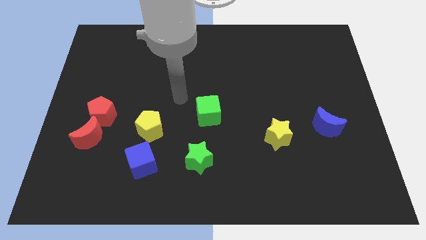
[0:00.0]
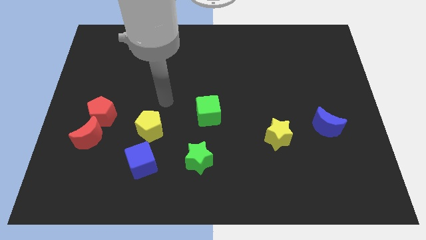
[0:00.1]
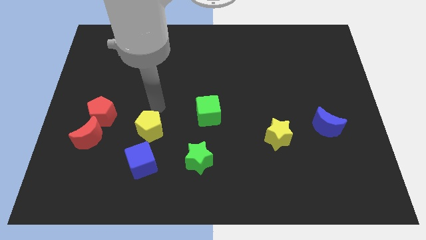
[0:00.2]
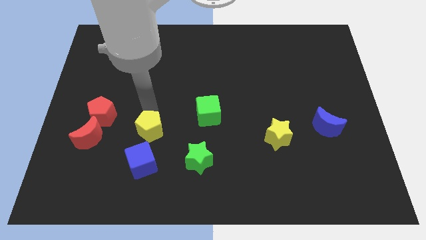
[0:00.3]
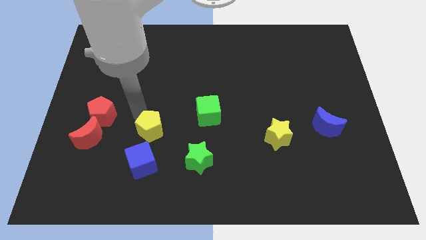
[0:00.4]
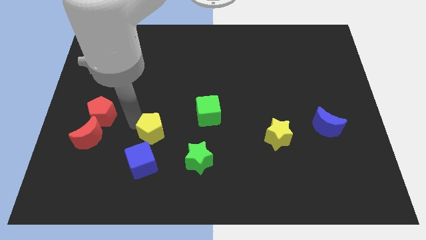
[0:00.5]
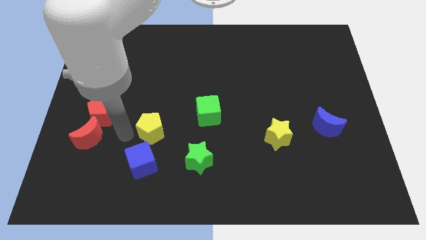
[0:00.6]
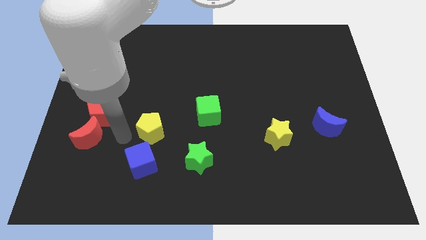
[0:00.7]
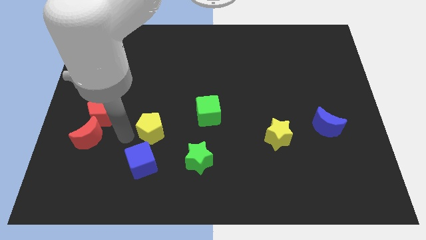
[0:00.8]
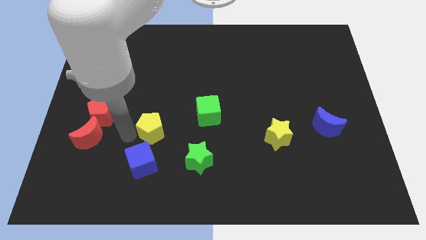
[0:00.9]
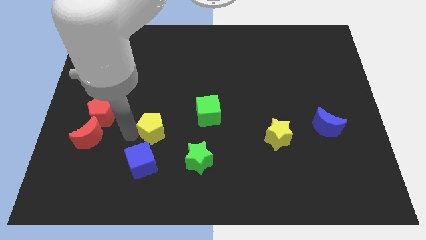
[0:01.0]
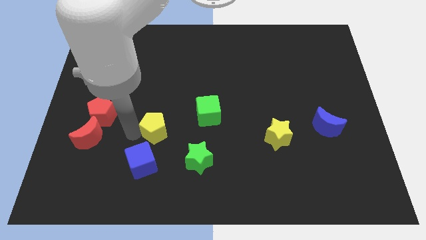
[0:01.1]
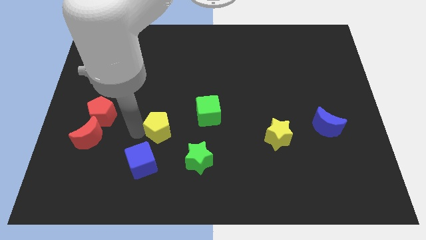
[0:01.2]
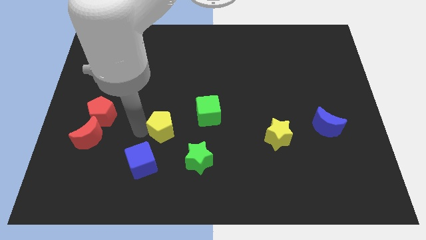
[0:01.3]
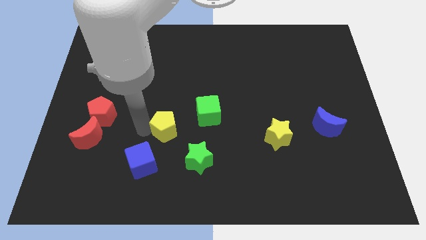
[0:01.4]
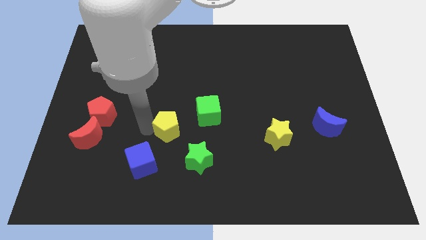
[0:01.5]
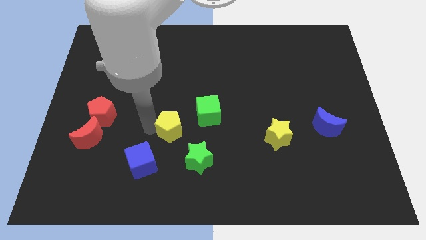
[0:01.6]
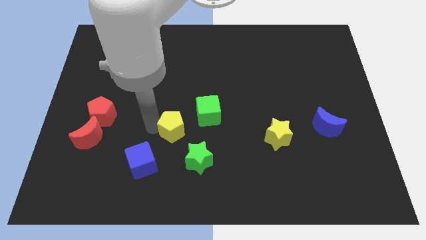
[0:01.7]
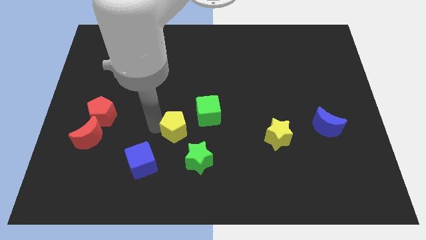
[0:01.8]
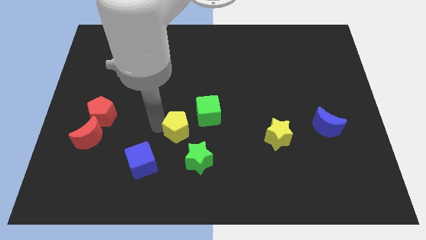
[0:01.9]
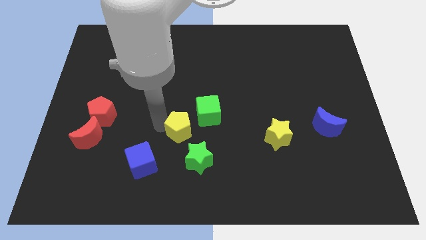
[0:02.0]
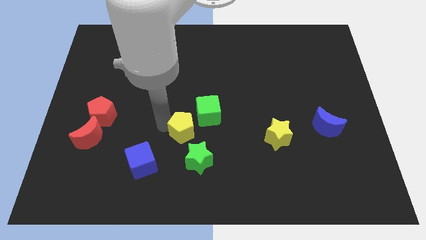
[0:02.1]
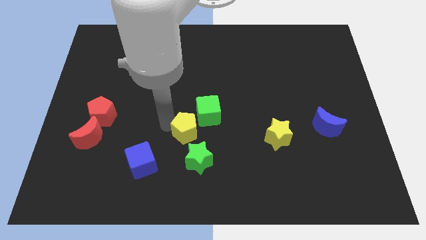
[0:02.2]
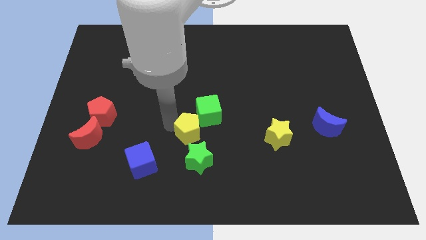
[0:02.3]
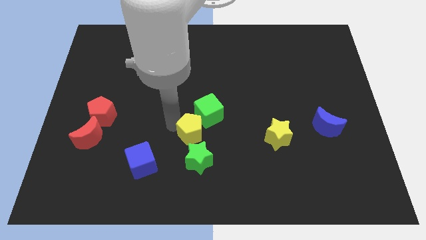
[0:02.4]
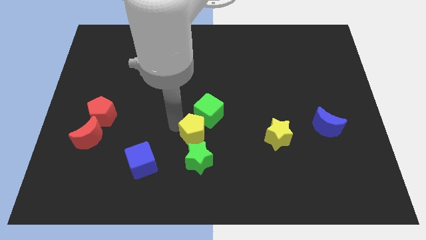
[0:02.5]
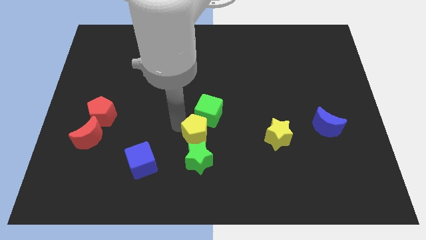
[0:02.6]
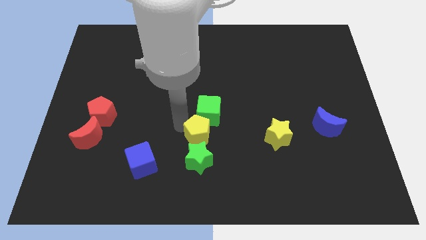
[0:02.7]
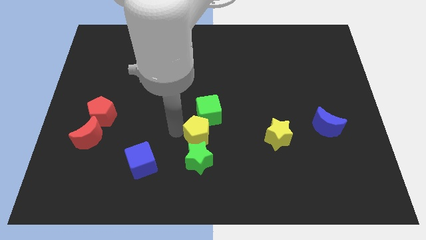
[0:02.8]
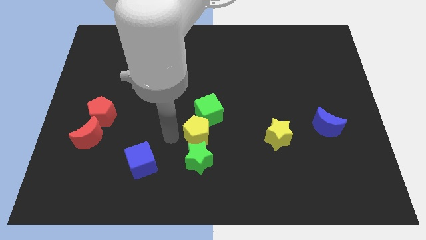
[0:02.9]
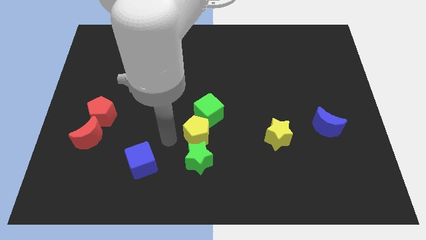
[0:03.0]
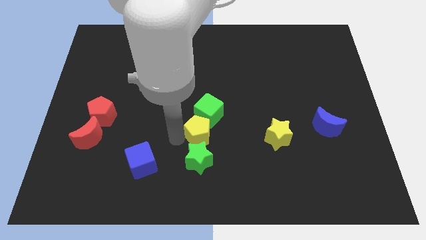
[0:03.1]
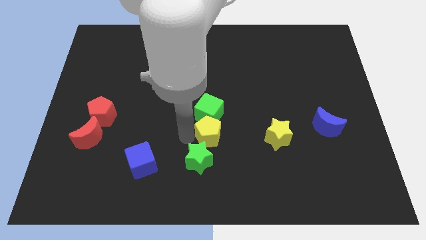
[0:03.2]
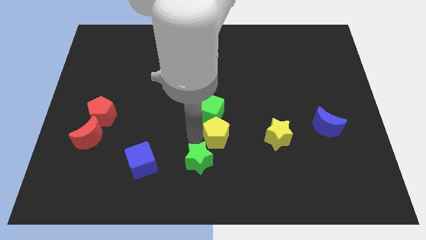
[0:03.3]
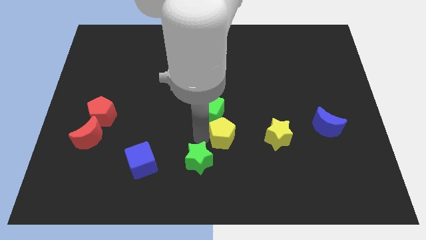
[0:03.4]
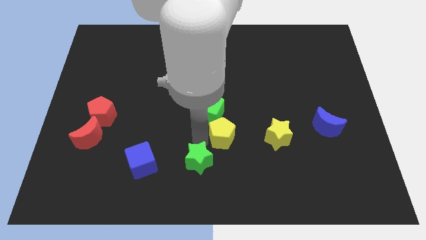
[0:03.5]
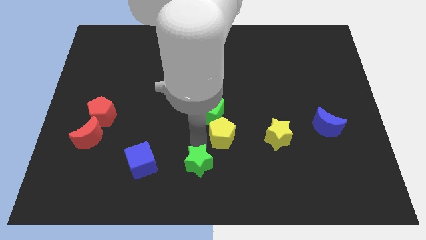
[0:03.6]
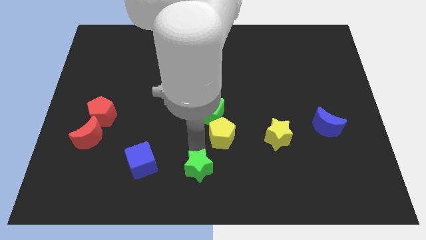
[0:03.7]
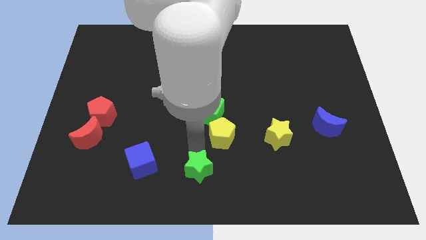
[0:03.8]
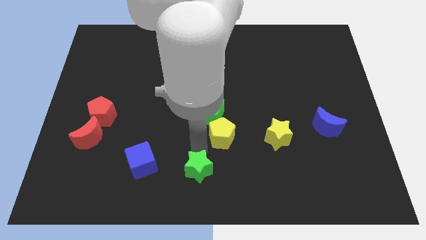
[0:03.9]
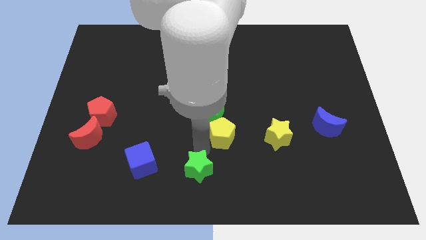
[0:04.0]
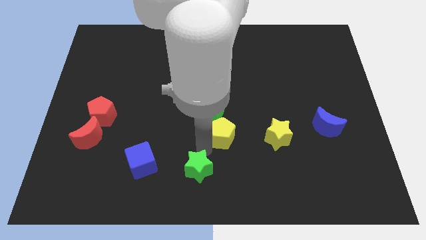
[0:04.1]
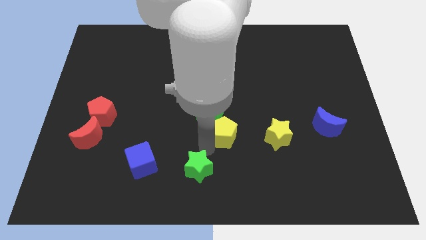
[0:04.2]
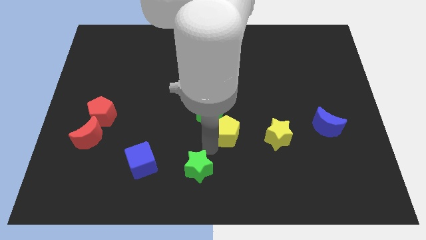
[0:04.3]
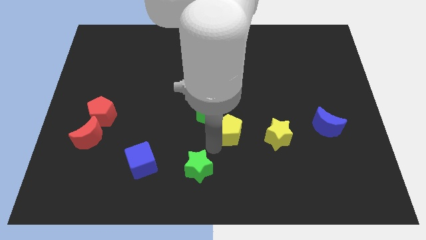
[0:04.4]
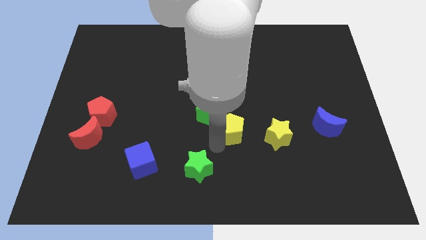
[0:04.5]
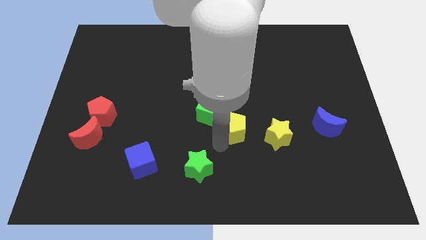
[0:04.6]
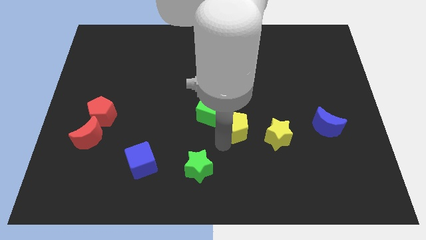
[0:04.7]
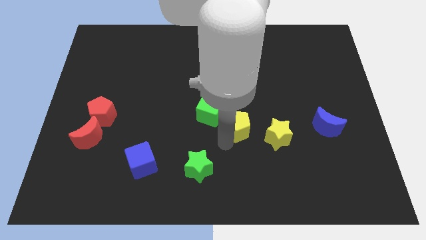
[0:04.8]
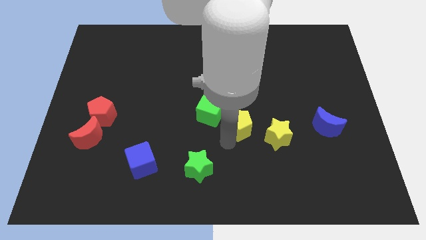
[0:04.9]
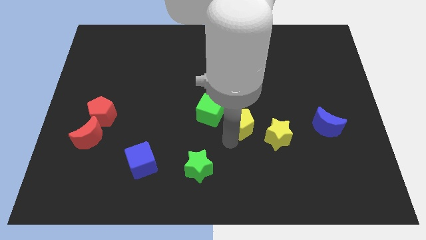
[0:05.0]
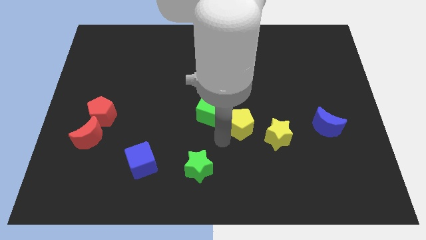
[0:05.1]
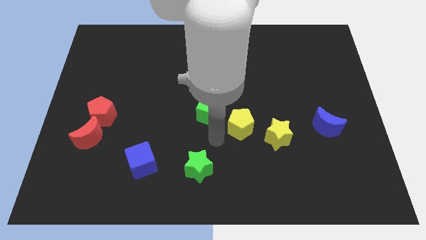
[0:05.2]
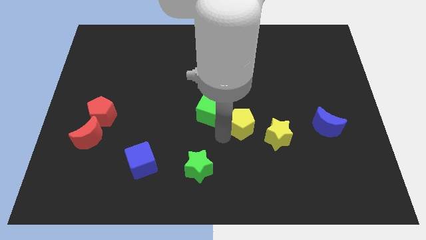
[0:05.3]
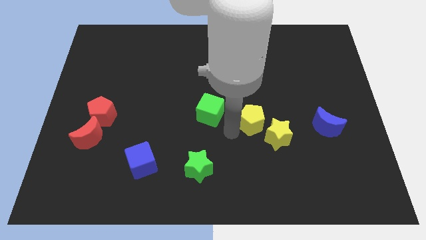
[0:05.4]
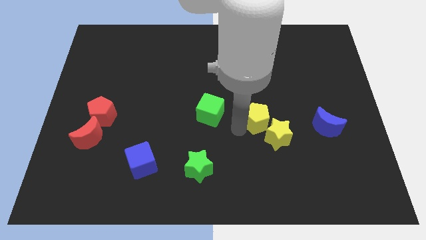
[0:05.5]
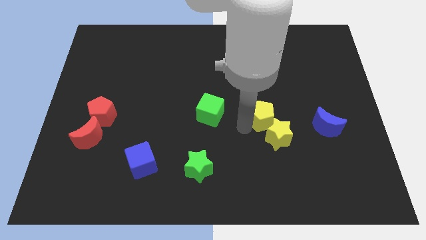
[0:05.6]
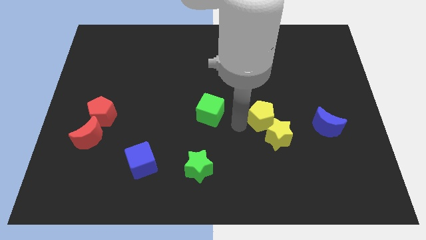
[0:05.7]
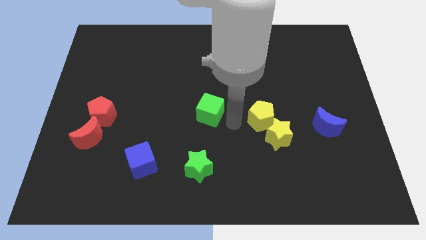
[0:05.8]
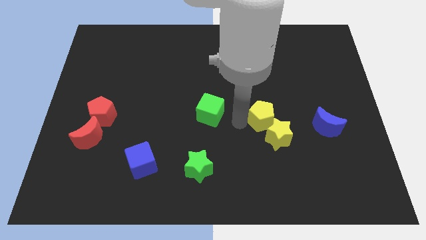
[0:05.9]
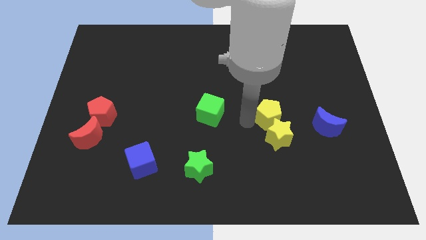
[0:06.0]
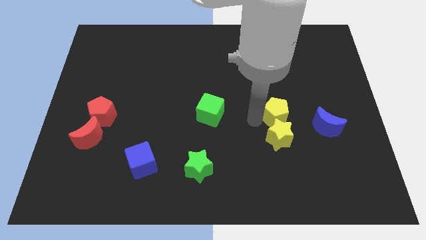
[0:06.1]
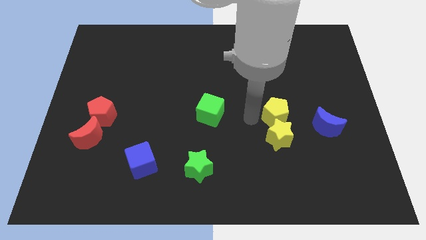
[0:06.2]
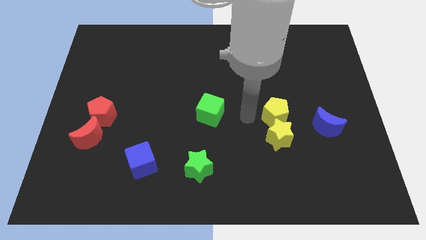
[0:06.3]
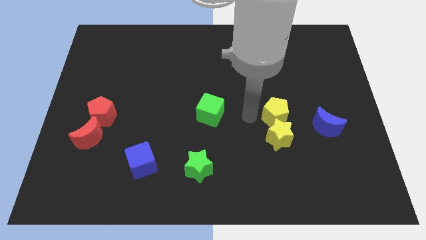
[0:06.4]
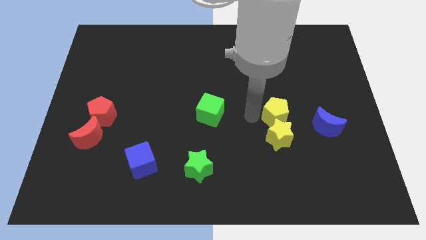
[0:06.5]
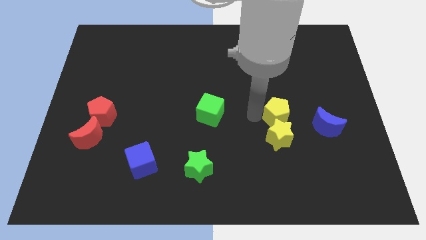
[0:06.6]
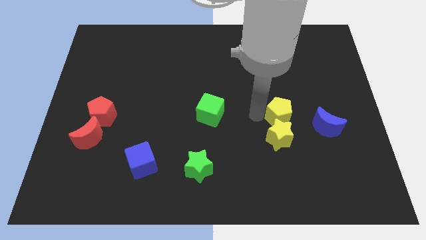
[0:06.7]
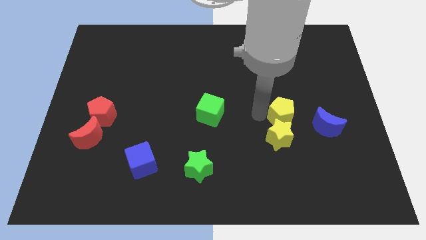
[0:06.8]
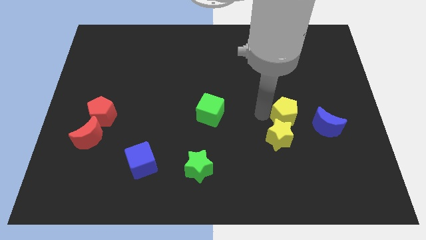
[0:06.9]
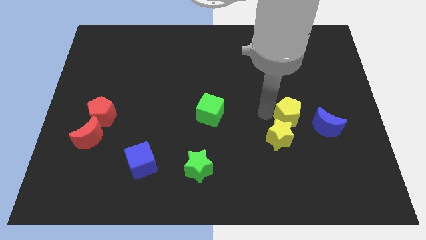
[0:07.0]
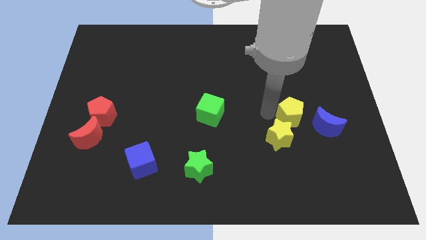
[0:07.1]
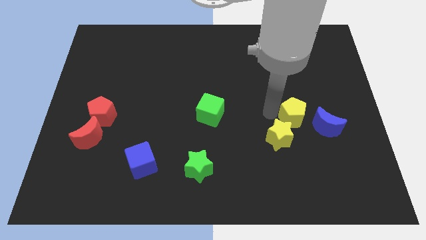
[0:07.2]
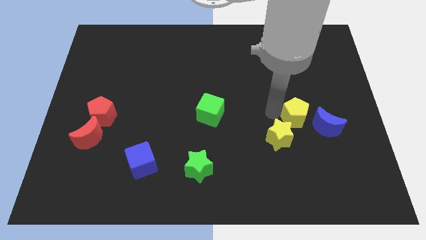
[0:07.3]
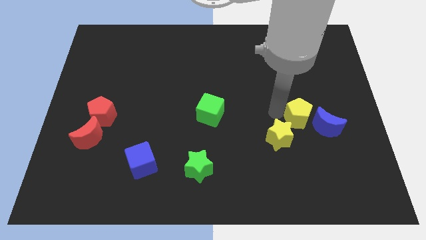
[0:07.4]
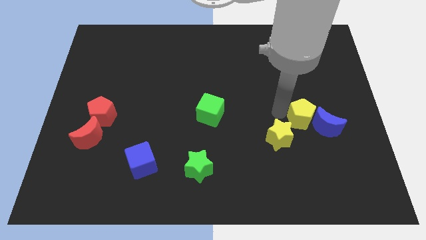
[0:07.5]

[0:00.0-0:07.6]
put the yellow pentagon next to the blue moon

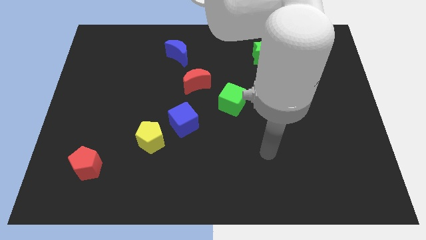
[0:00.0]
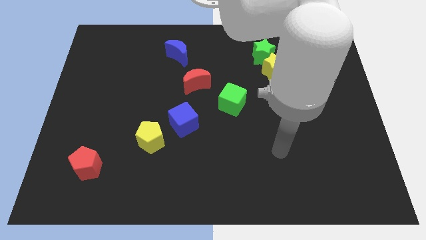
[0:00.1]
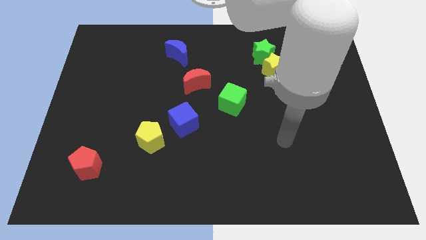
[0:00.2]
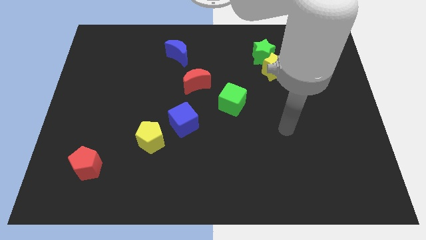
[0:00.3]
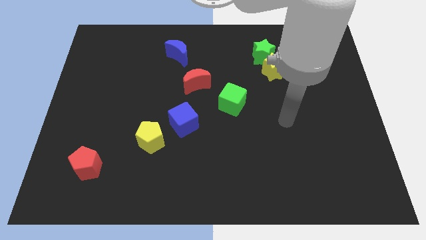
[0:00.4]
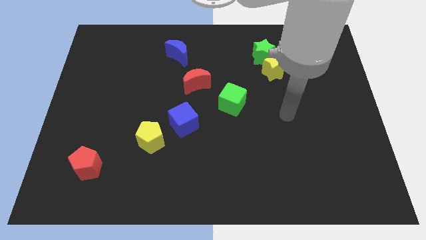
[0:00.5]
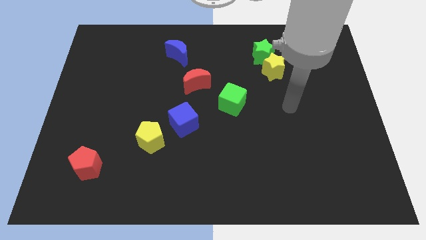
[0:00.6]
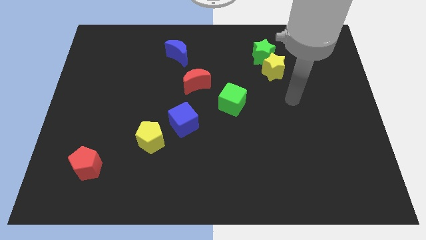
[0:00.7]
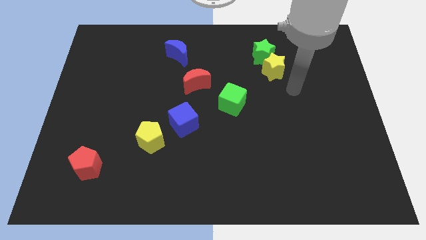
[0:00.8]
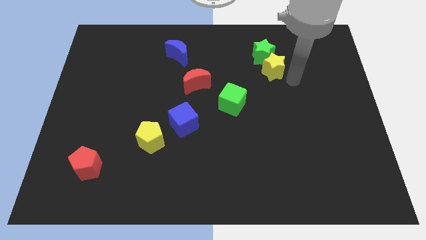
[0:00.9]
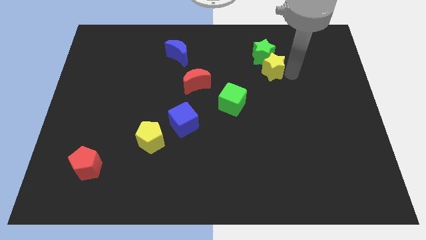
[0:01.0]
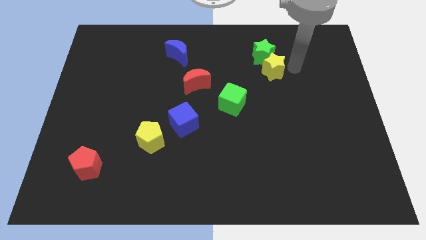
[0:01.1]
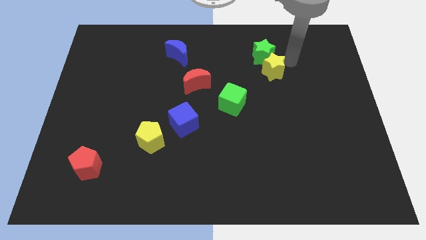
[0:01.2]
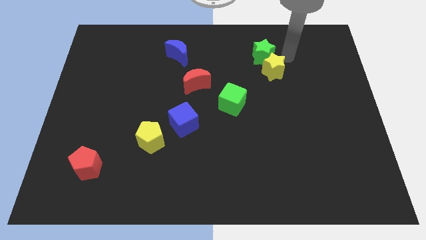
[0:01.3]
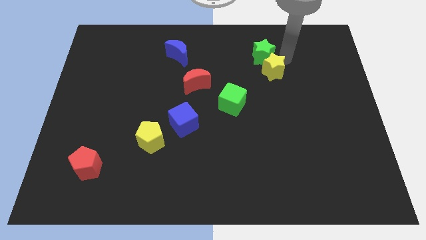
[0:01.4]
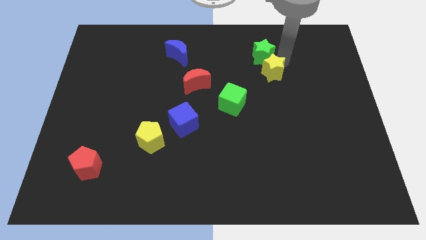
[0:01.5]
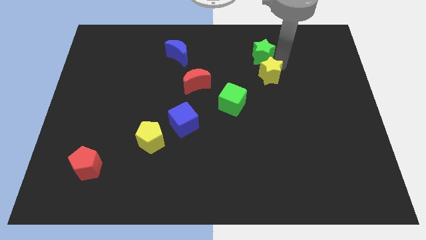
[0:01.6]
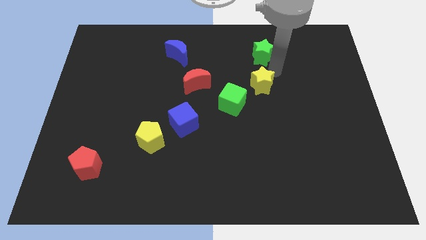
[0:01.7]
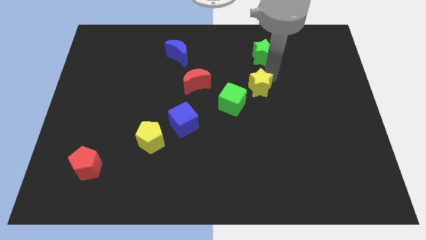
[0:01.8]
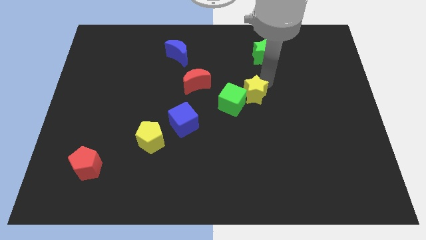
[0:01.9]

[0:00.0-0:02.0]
move the yellow star next to the green cube
